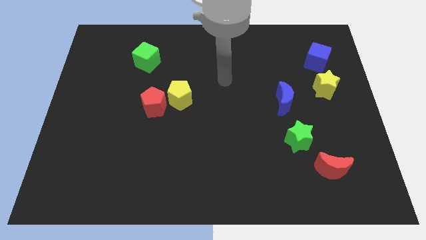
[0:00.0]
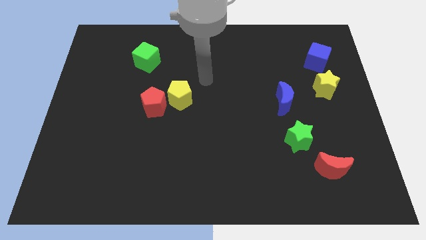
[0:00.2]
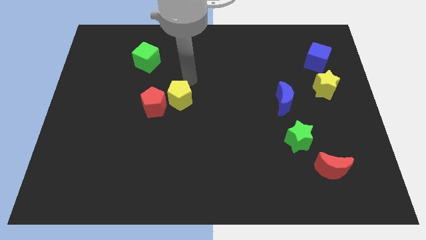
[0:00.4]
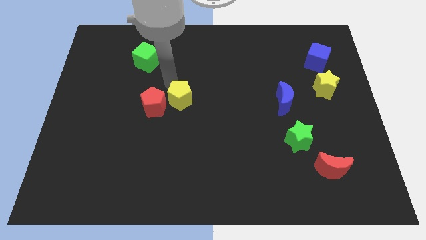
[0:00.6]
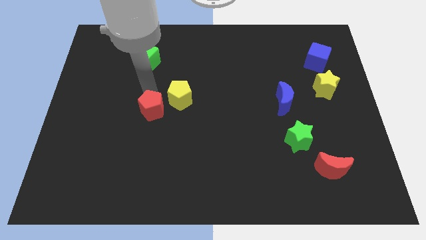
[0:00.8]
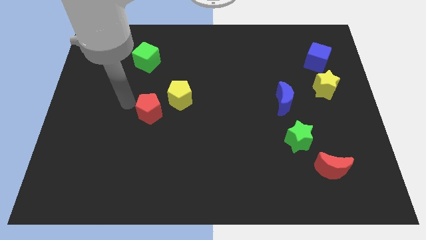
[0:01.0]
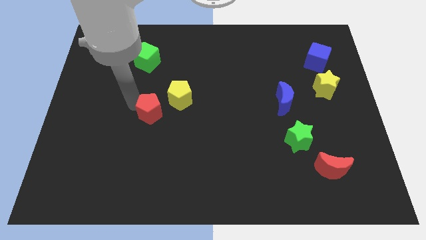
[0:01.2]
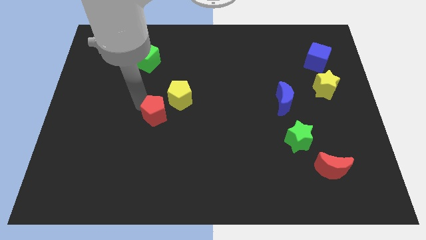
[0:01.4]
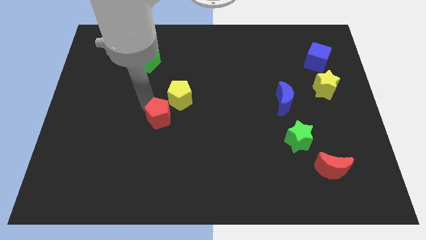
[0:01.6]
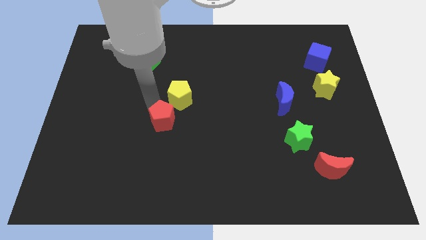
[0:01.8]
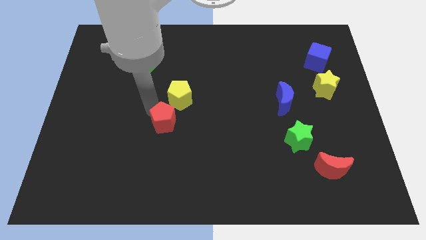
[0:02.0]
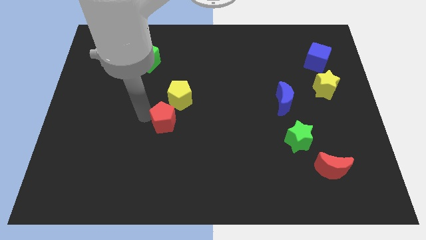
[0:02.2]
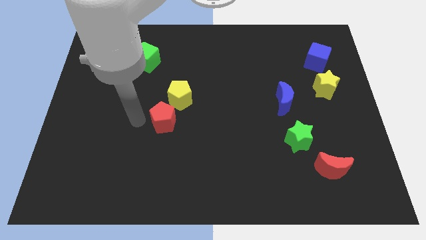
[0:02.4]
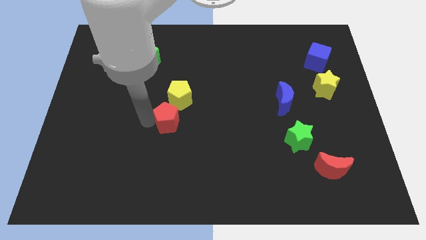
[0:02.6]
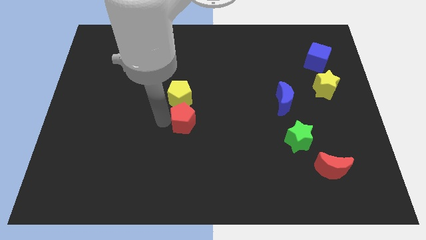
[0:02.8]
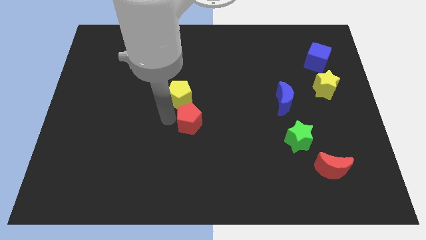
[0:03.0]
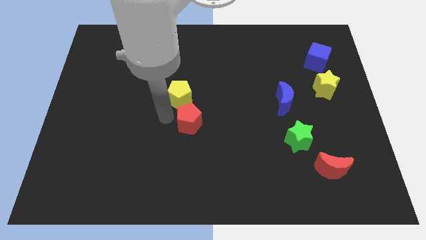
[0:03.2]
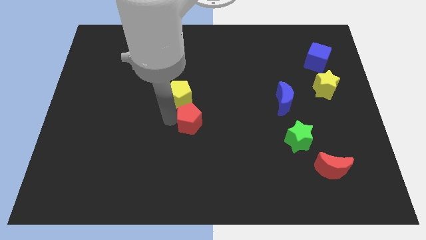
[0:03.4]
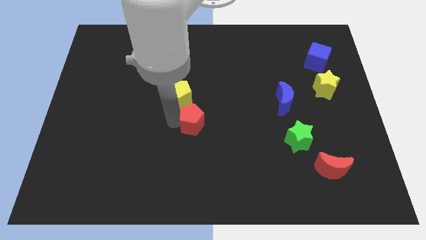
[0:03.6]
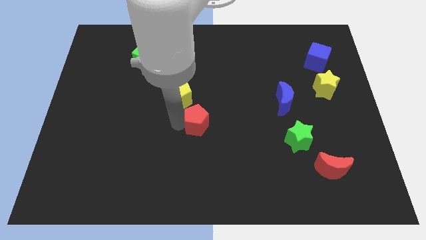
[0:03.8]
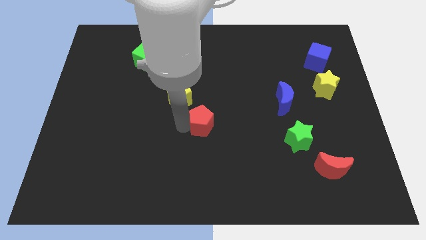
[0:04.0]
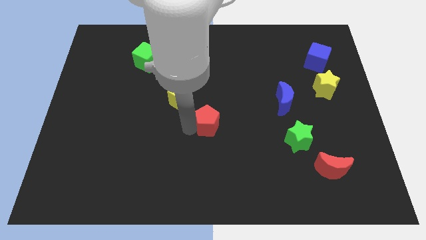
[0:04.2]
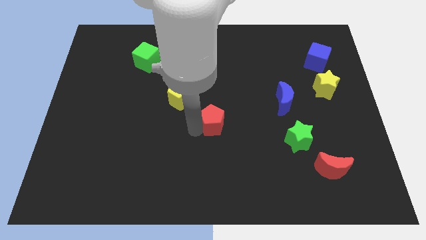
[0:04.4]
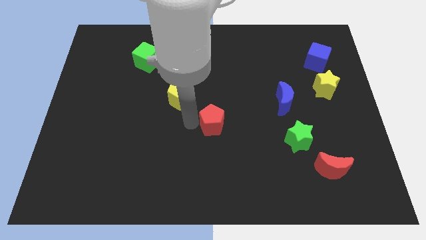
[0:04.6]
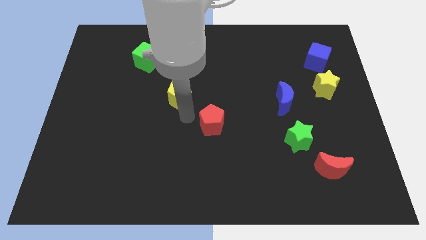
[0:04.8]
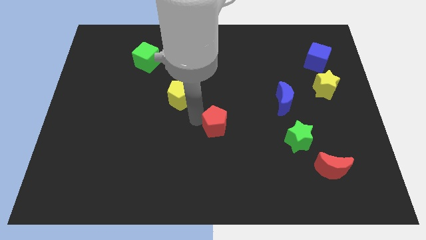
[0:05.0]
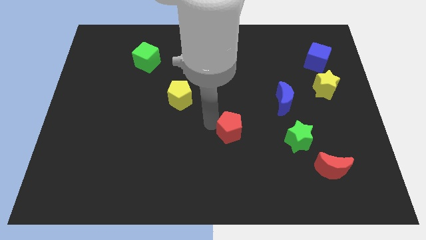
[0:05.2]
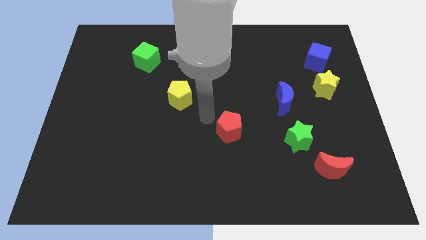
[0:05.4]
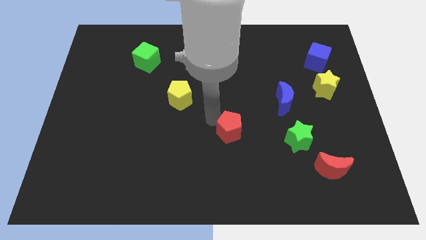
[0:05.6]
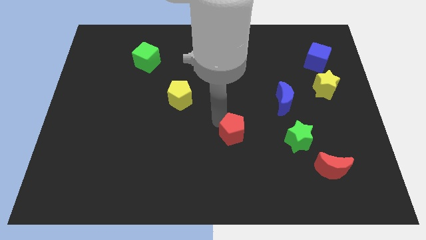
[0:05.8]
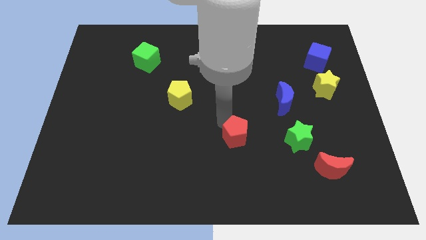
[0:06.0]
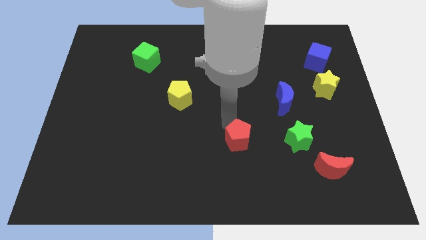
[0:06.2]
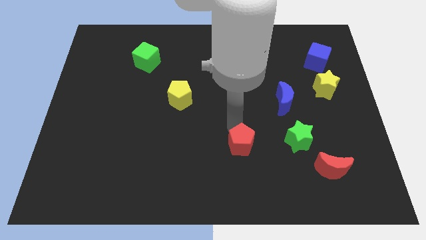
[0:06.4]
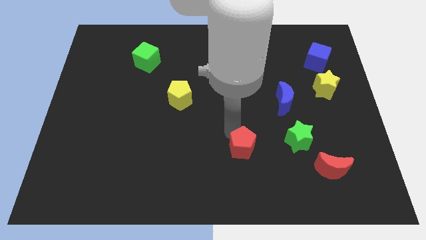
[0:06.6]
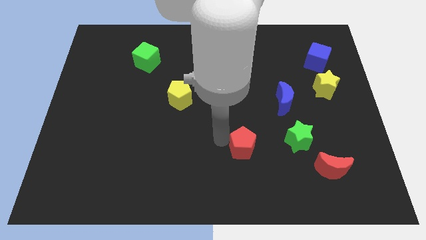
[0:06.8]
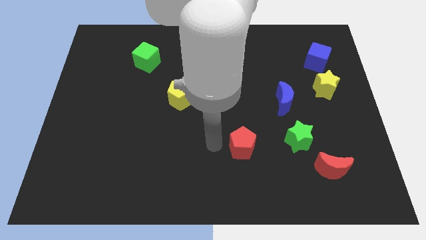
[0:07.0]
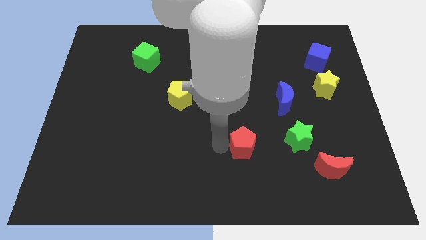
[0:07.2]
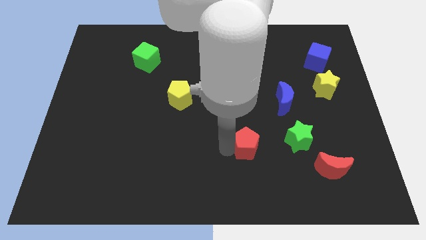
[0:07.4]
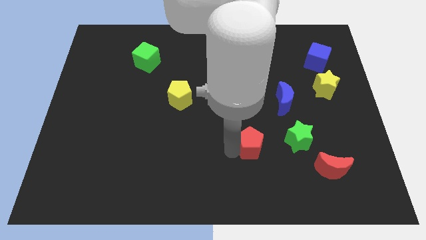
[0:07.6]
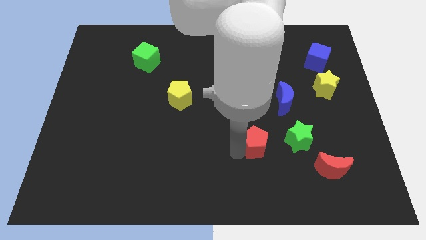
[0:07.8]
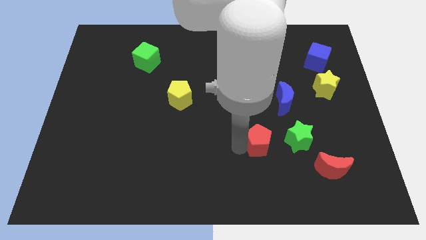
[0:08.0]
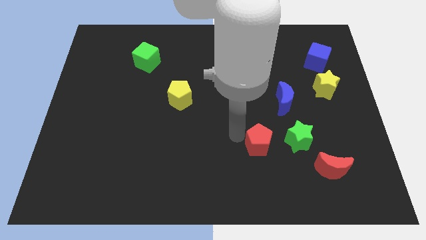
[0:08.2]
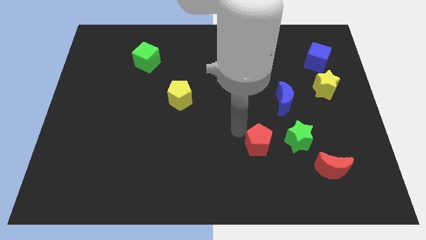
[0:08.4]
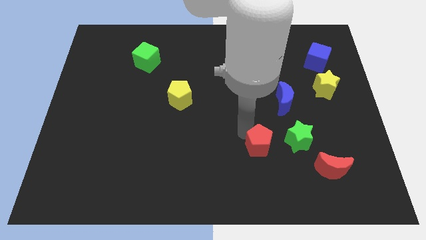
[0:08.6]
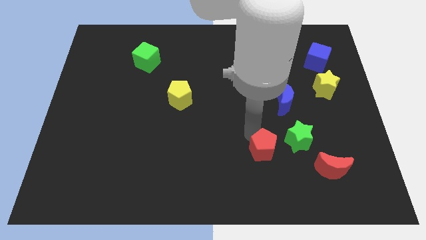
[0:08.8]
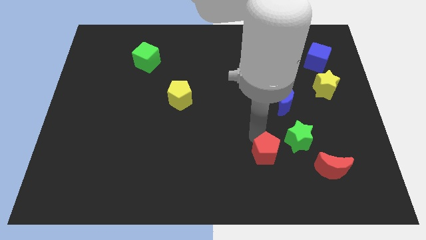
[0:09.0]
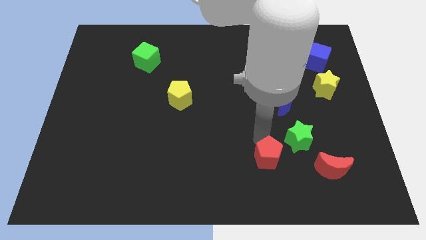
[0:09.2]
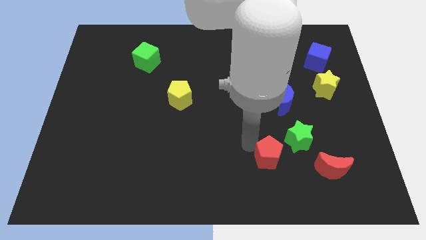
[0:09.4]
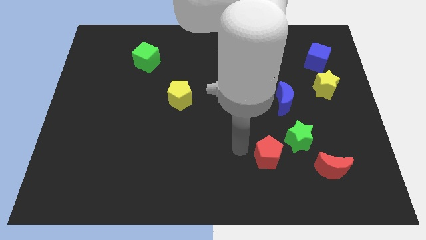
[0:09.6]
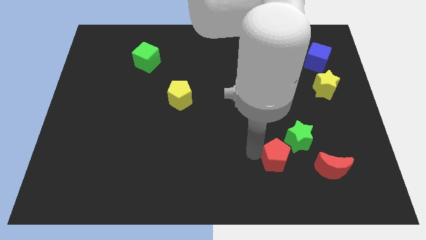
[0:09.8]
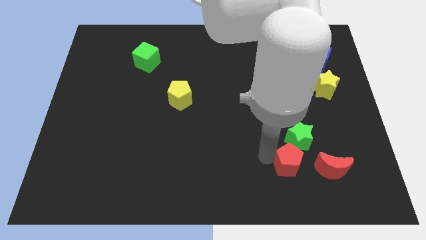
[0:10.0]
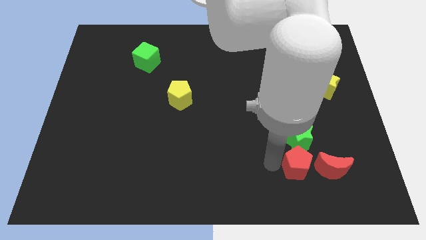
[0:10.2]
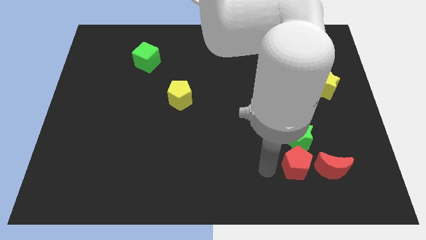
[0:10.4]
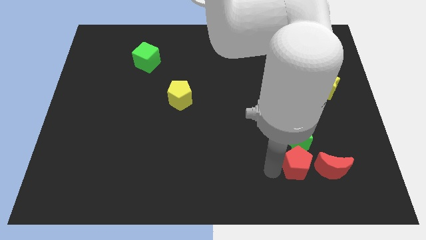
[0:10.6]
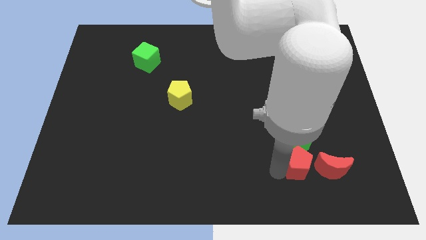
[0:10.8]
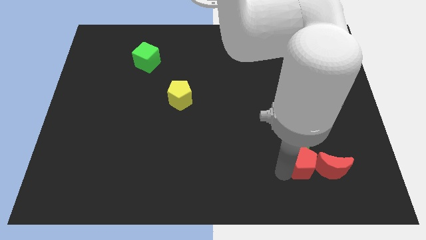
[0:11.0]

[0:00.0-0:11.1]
push the red pentagon close to the red moon

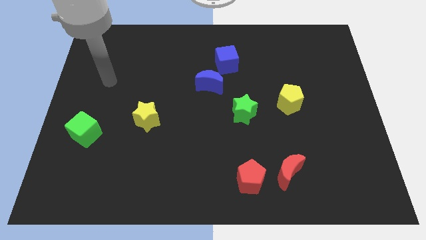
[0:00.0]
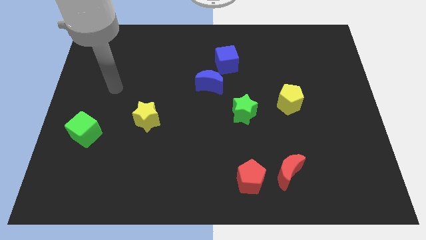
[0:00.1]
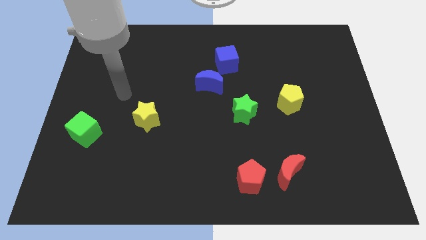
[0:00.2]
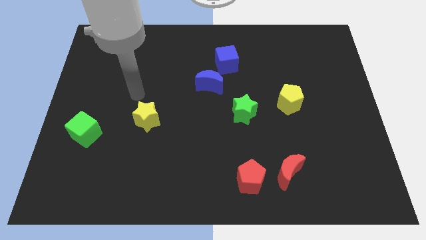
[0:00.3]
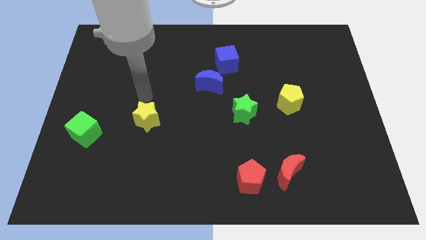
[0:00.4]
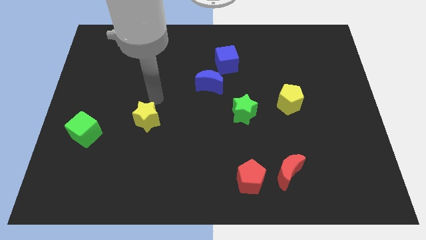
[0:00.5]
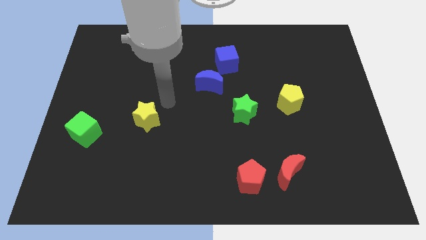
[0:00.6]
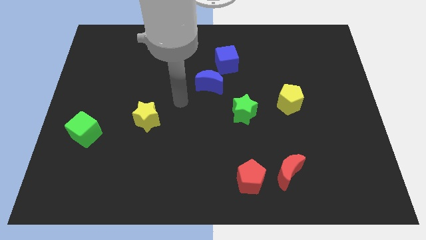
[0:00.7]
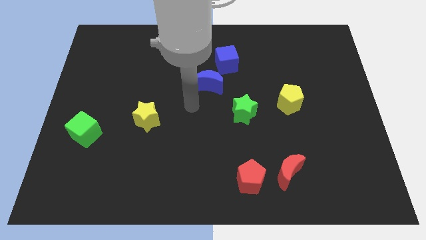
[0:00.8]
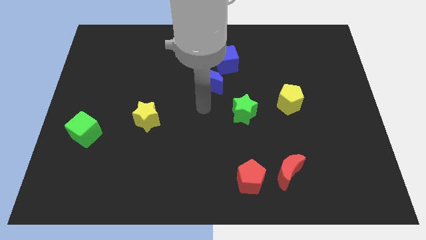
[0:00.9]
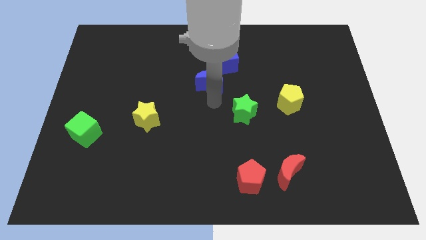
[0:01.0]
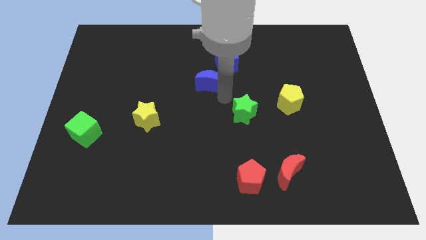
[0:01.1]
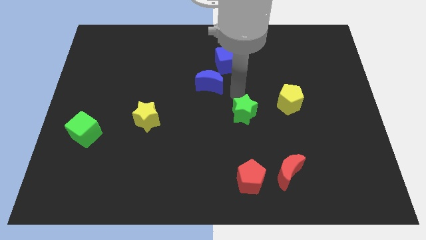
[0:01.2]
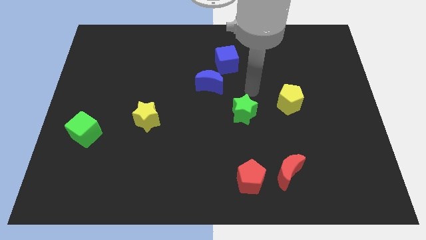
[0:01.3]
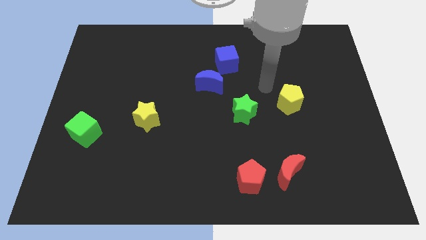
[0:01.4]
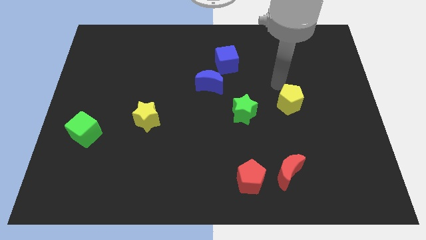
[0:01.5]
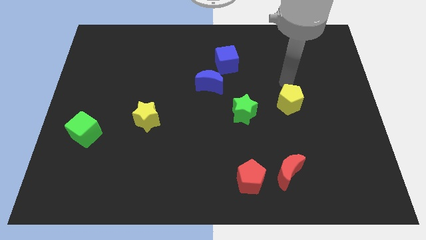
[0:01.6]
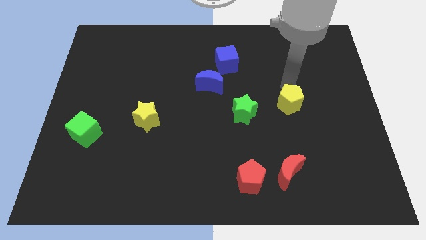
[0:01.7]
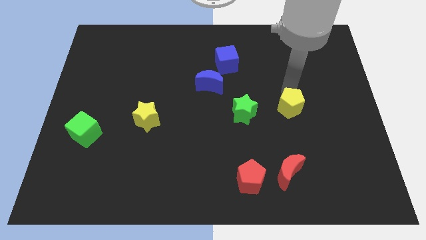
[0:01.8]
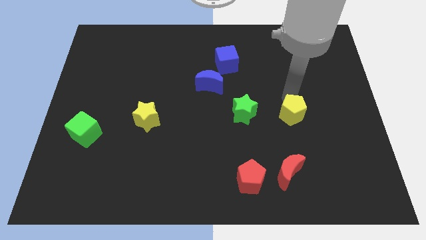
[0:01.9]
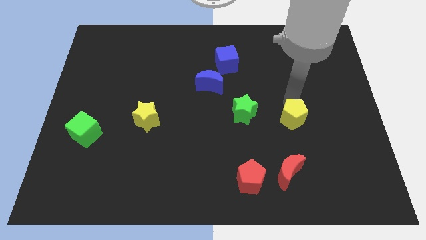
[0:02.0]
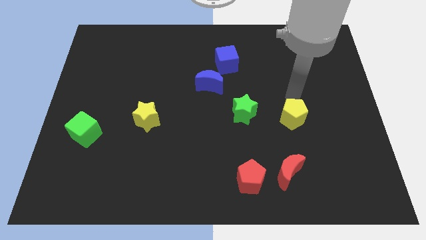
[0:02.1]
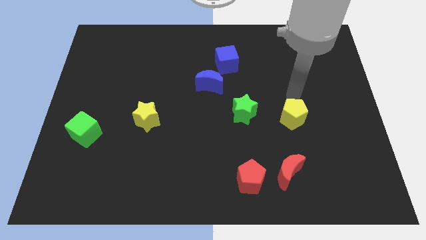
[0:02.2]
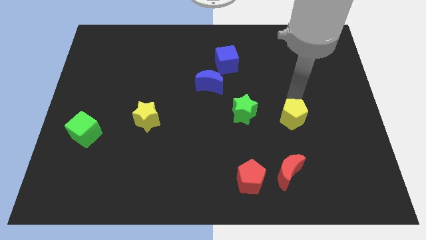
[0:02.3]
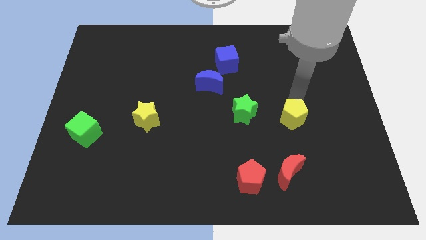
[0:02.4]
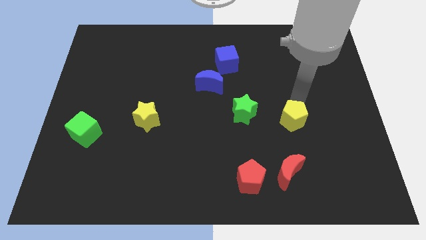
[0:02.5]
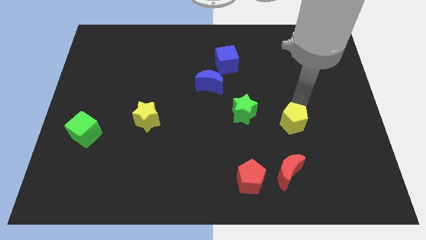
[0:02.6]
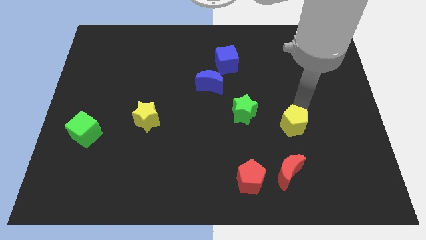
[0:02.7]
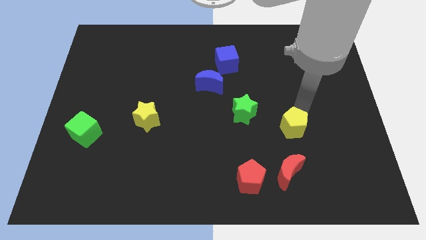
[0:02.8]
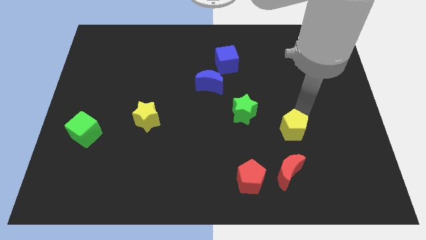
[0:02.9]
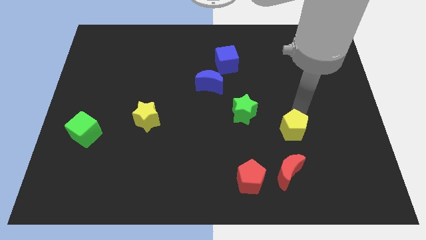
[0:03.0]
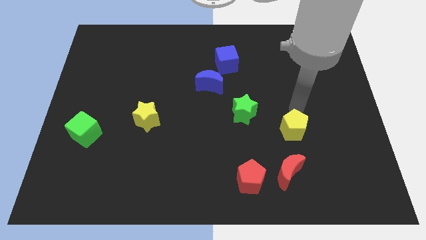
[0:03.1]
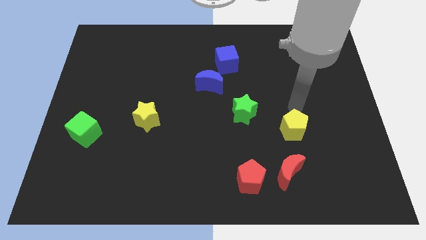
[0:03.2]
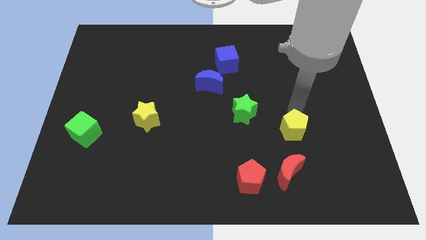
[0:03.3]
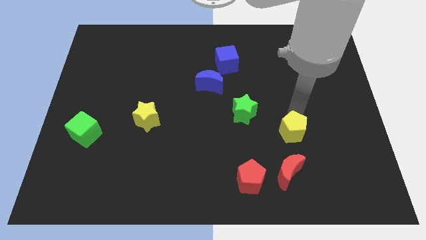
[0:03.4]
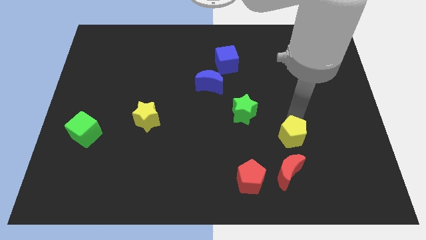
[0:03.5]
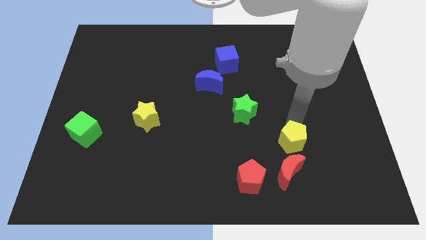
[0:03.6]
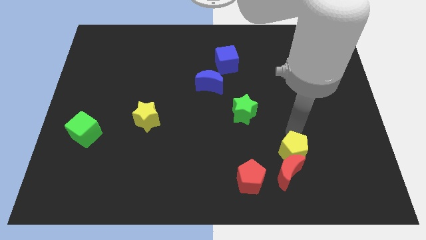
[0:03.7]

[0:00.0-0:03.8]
put the yellow pentagon close to the red moon
